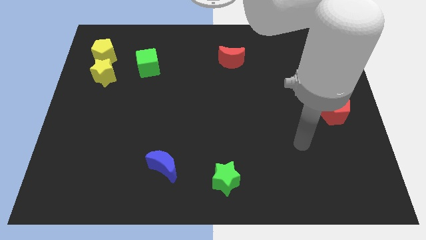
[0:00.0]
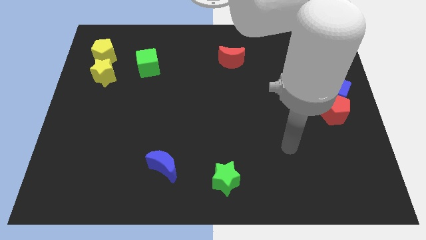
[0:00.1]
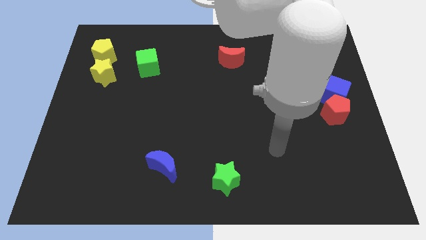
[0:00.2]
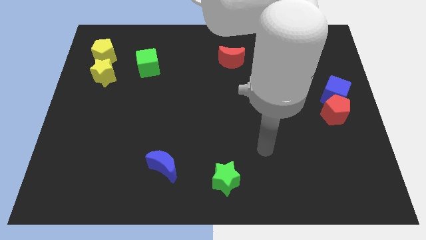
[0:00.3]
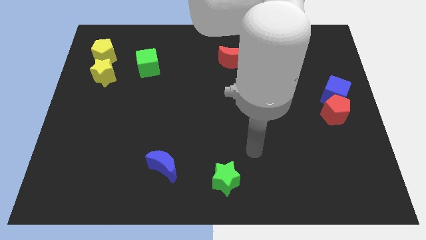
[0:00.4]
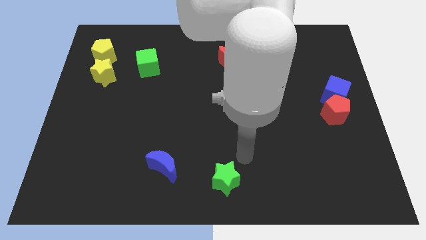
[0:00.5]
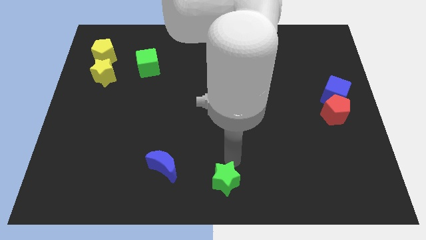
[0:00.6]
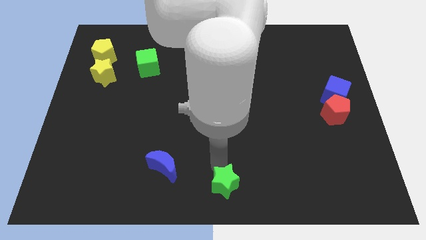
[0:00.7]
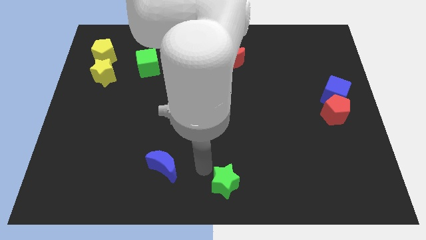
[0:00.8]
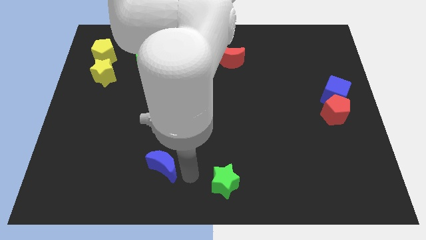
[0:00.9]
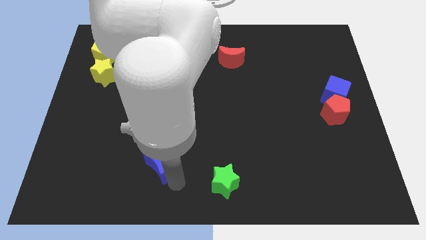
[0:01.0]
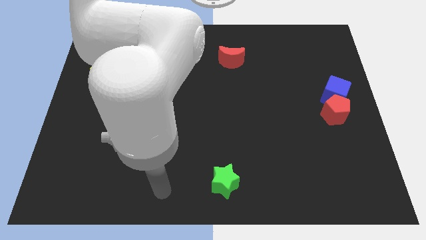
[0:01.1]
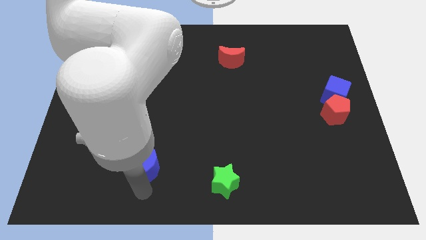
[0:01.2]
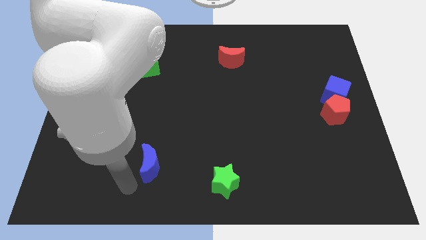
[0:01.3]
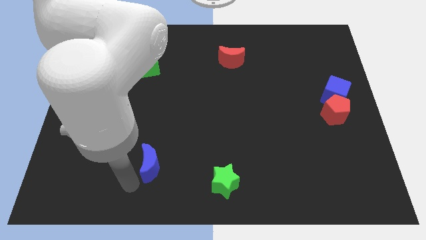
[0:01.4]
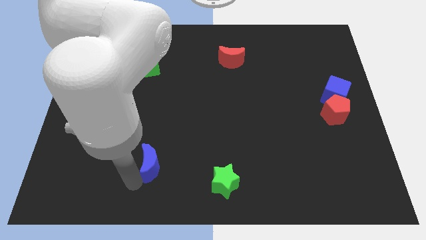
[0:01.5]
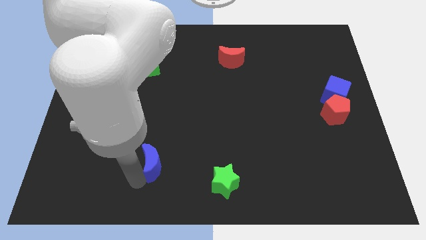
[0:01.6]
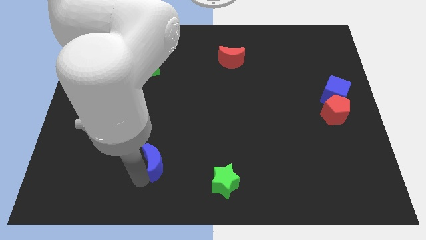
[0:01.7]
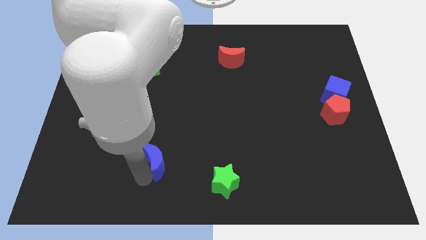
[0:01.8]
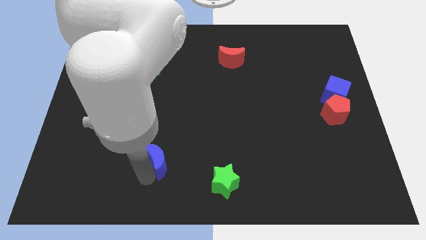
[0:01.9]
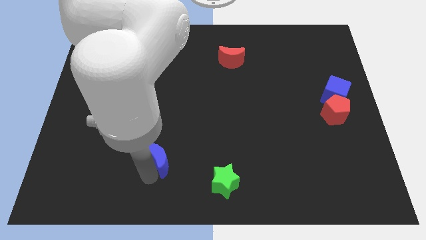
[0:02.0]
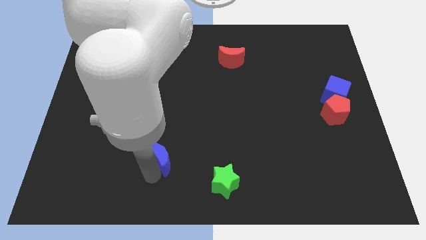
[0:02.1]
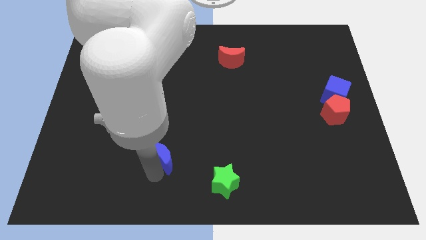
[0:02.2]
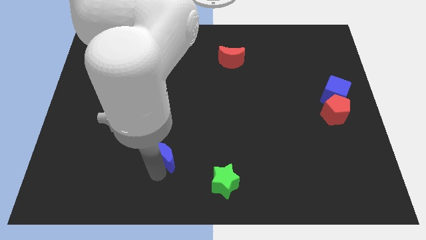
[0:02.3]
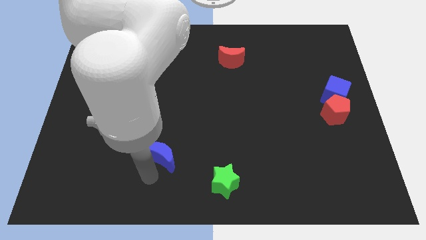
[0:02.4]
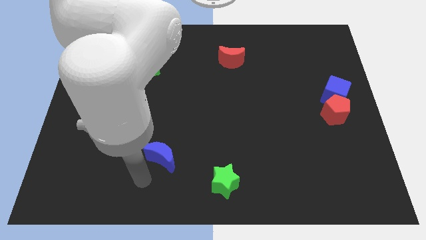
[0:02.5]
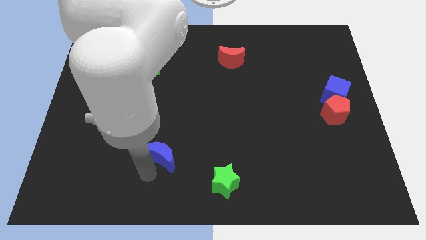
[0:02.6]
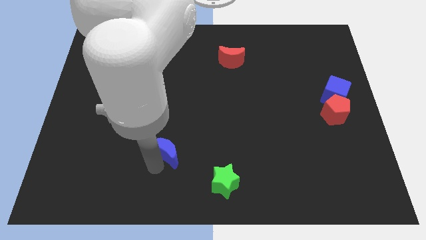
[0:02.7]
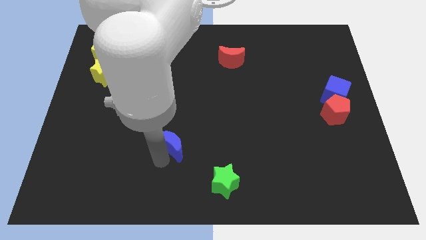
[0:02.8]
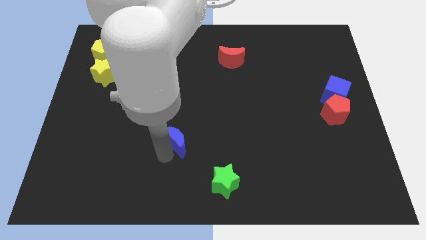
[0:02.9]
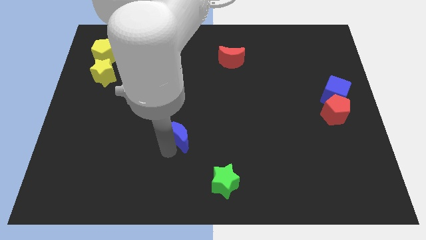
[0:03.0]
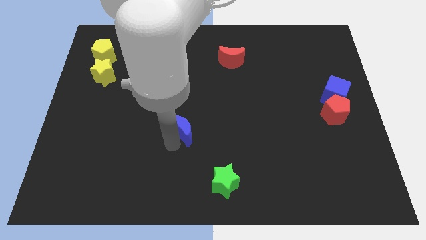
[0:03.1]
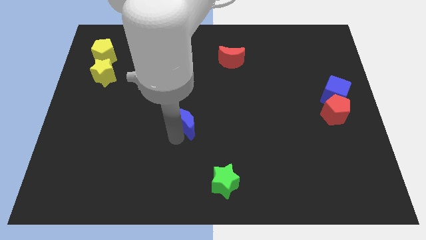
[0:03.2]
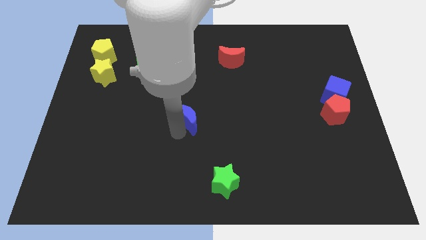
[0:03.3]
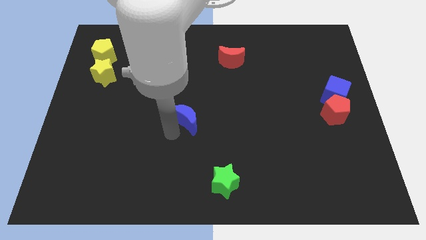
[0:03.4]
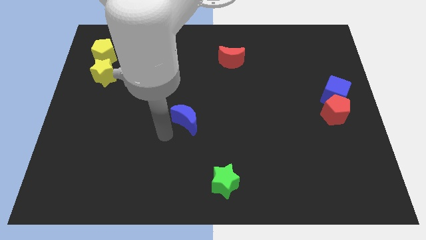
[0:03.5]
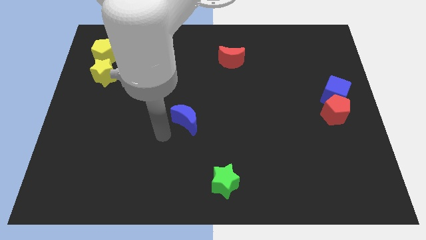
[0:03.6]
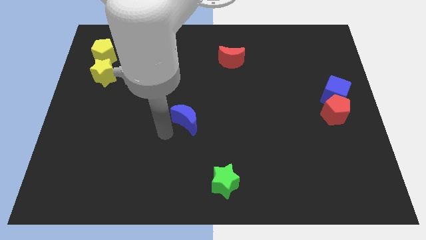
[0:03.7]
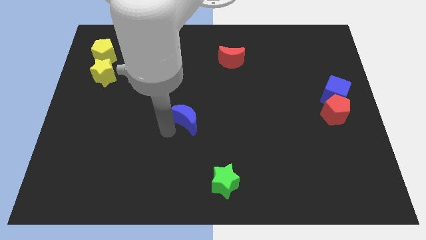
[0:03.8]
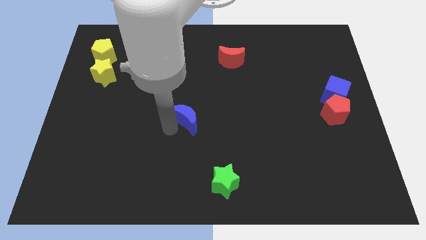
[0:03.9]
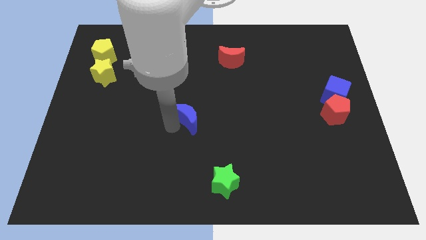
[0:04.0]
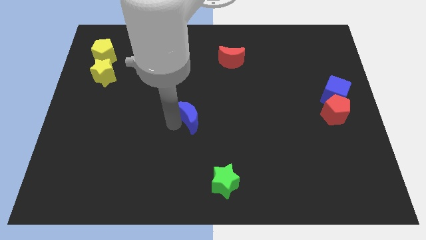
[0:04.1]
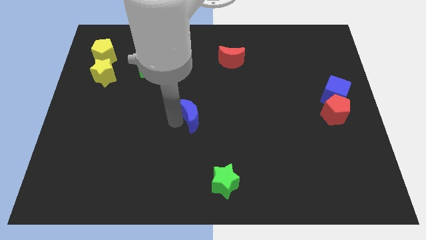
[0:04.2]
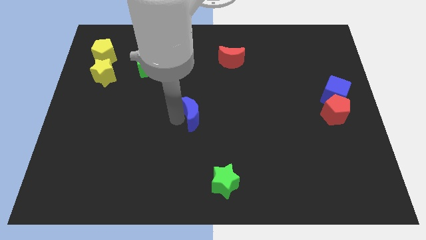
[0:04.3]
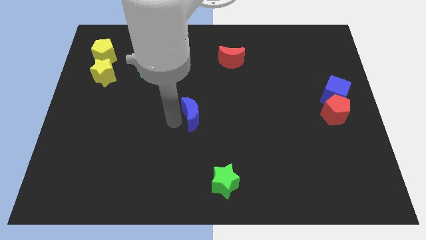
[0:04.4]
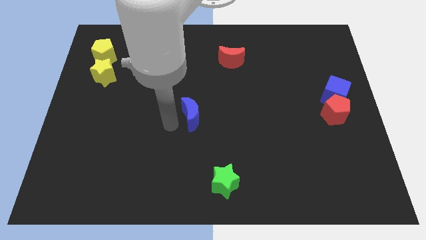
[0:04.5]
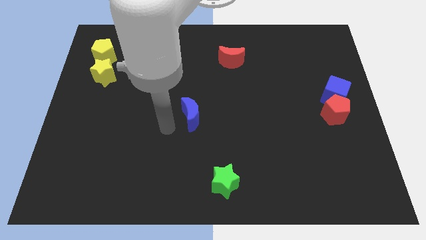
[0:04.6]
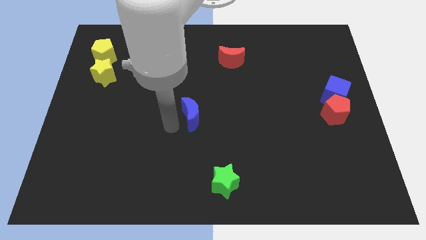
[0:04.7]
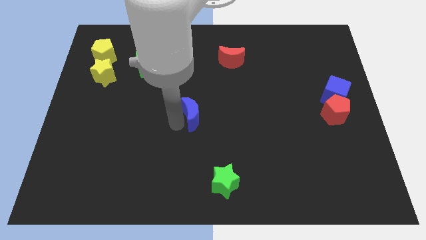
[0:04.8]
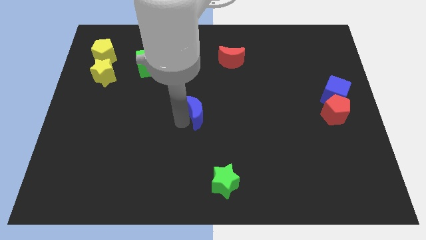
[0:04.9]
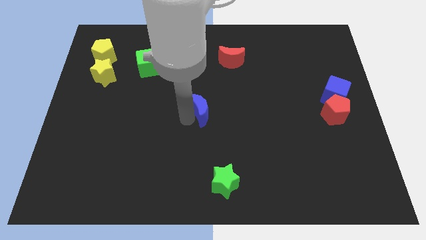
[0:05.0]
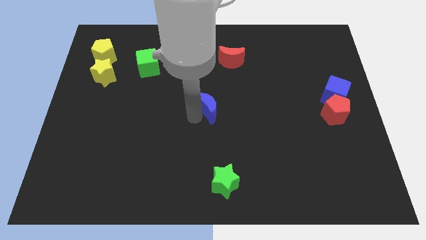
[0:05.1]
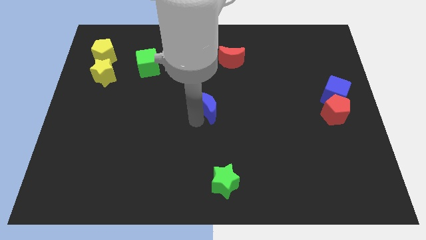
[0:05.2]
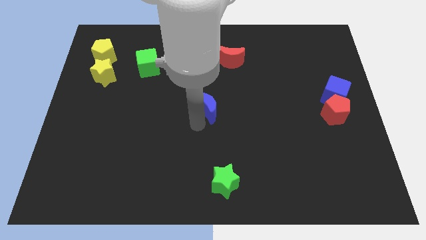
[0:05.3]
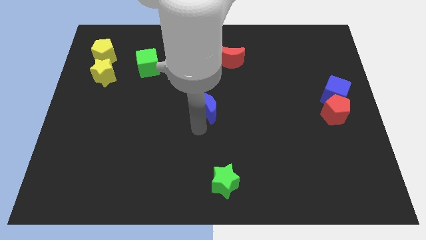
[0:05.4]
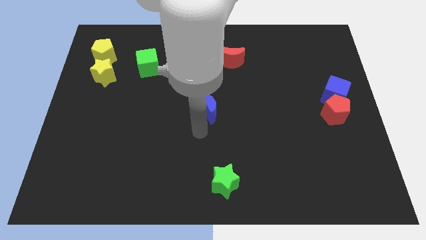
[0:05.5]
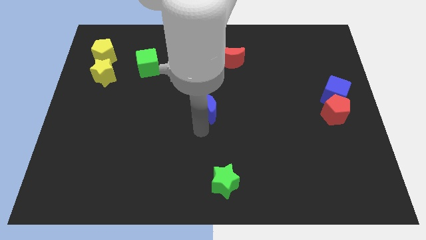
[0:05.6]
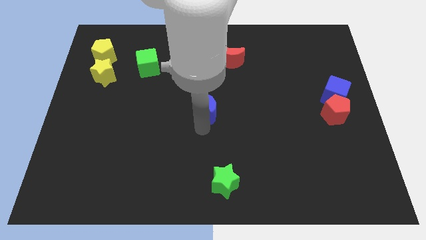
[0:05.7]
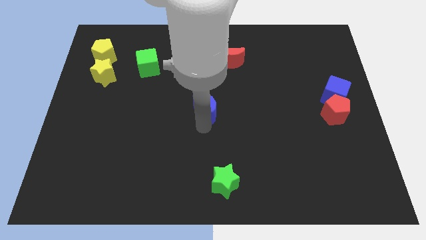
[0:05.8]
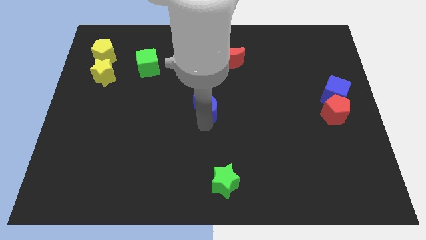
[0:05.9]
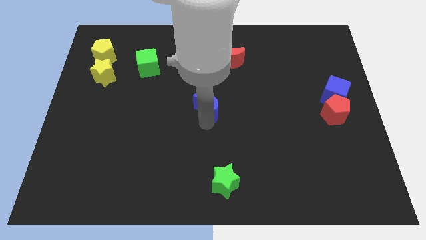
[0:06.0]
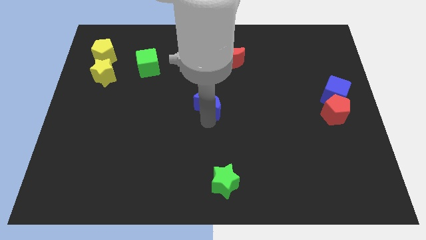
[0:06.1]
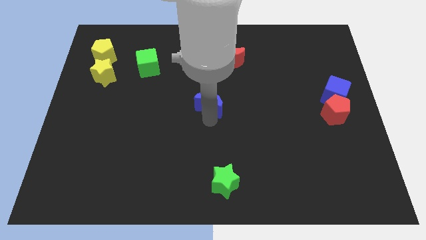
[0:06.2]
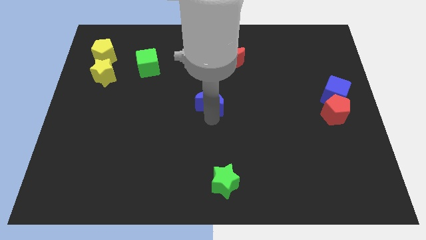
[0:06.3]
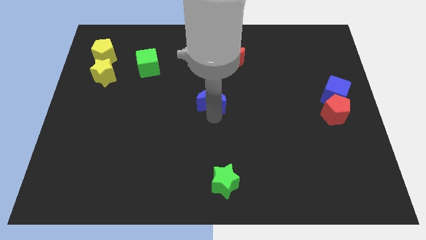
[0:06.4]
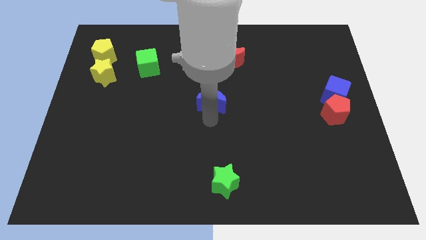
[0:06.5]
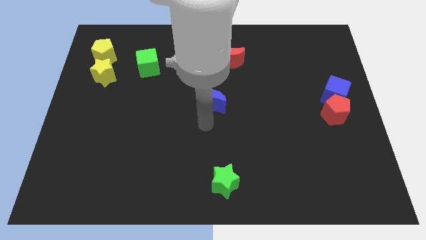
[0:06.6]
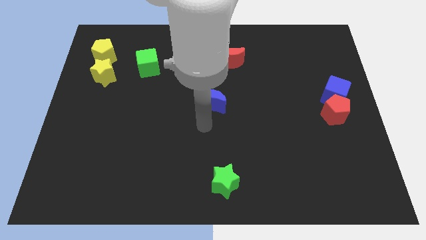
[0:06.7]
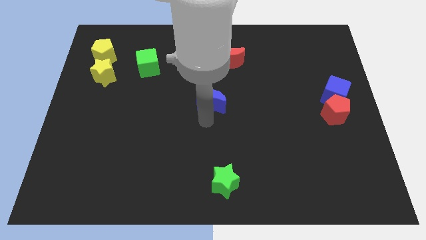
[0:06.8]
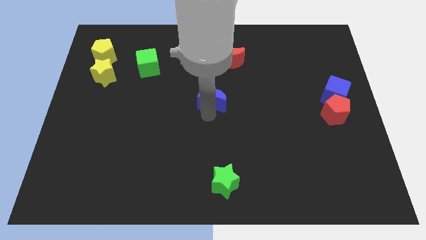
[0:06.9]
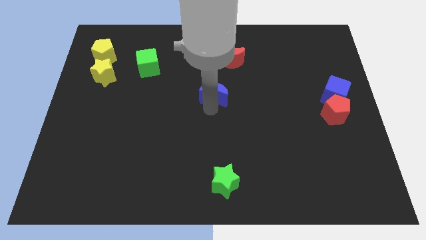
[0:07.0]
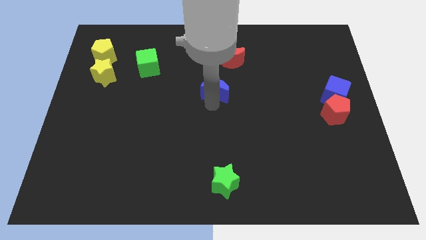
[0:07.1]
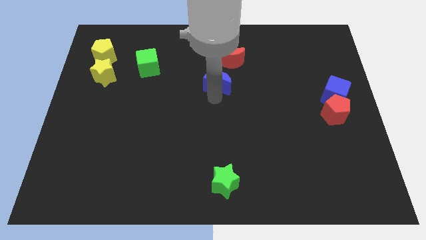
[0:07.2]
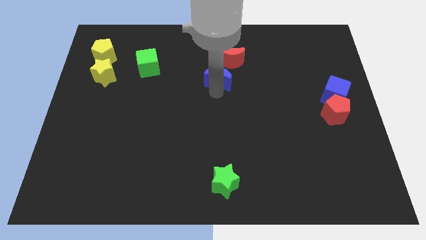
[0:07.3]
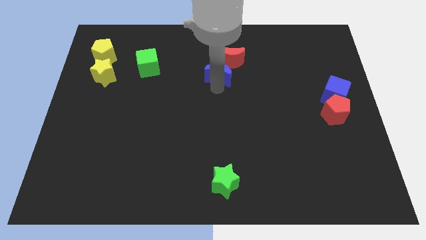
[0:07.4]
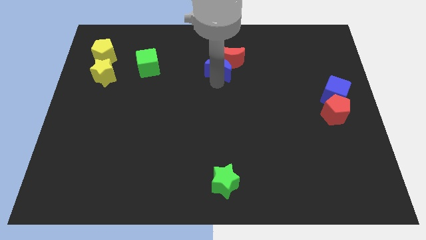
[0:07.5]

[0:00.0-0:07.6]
push the blue moon towards the red moon

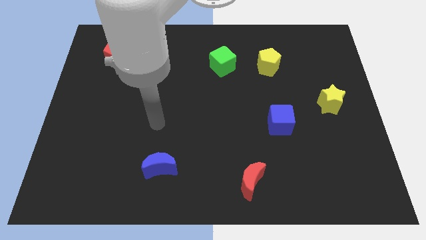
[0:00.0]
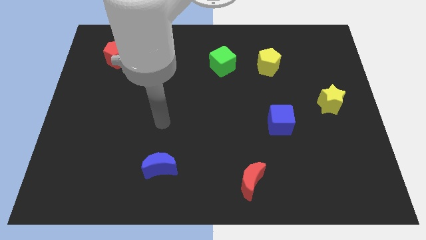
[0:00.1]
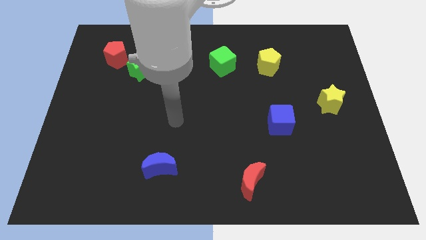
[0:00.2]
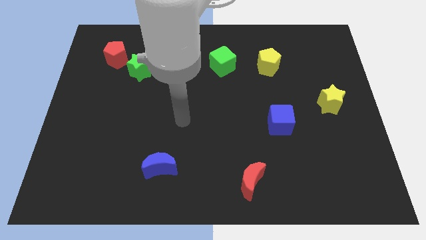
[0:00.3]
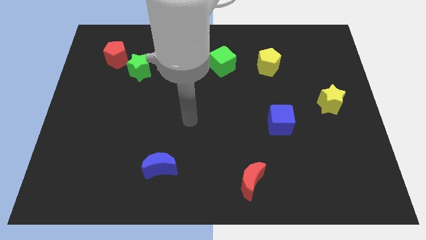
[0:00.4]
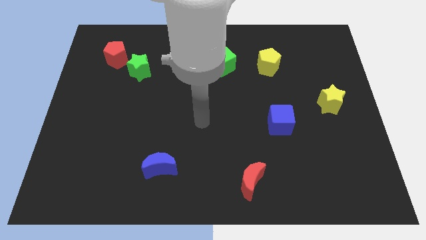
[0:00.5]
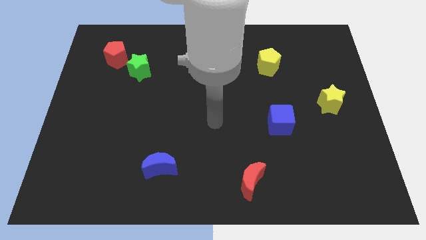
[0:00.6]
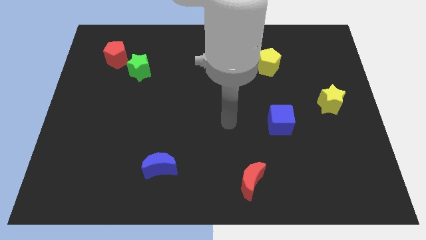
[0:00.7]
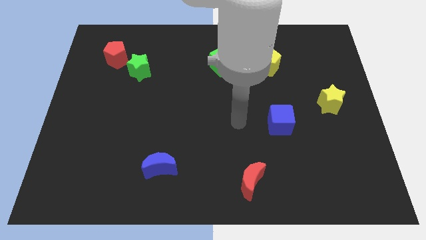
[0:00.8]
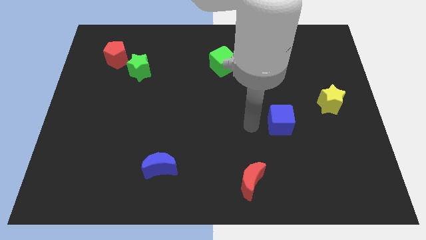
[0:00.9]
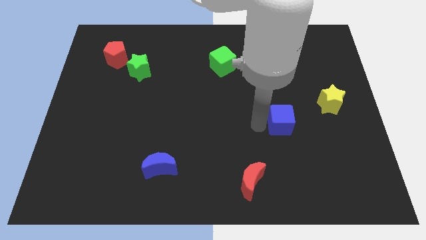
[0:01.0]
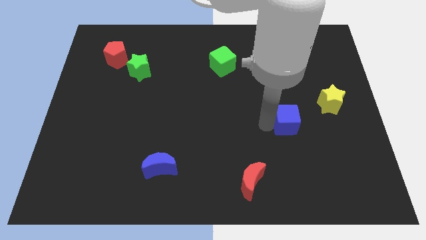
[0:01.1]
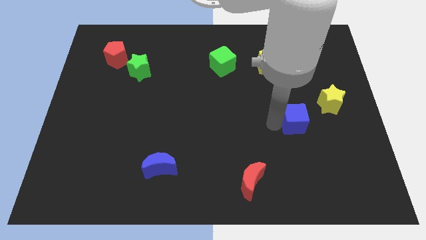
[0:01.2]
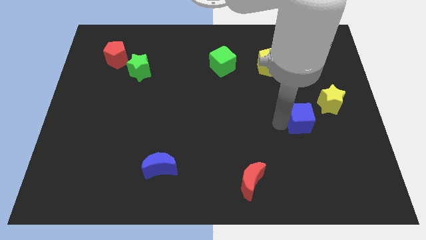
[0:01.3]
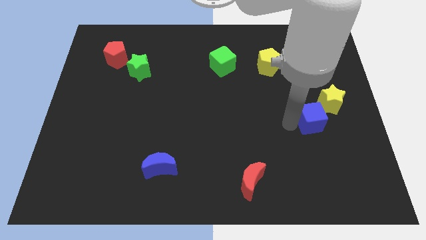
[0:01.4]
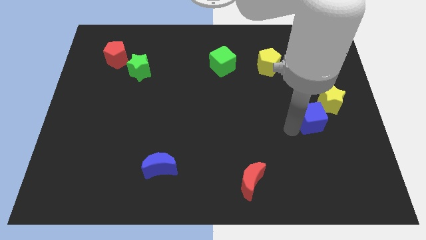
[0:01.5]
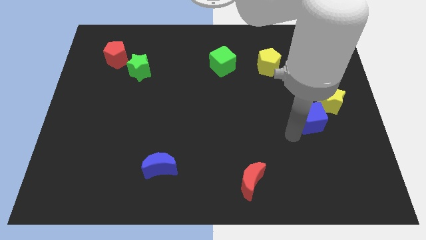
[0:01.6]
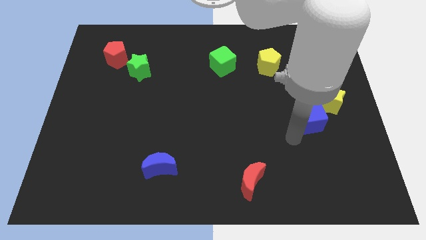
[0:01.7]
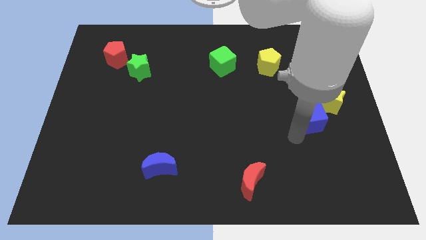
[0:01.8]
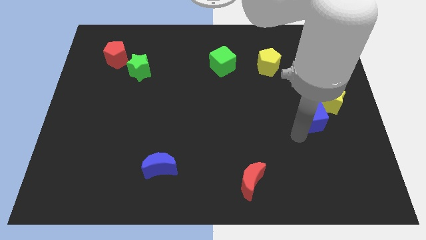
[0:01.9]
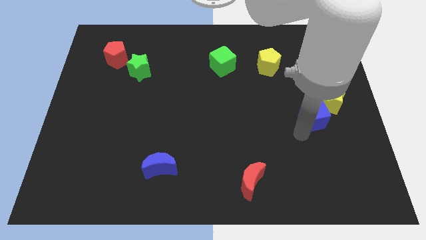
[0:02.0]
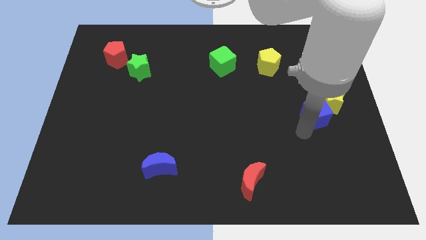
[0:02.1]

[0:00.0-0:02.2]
slide the blue cube to the yellow star
